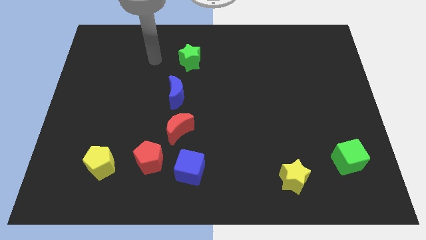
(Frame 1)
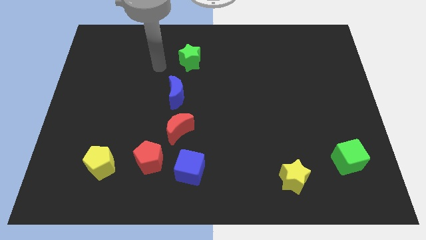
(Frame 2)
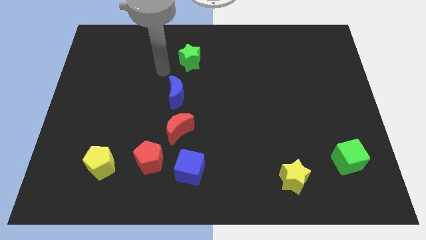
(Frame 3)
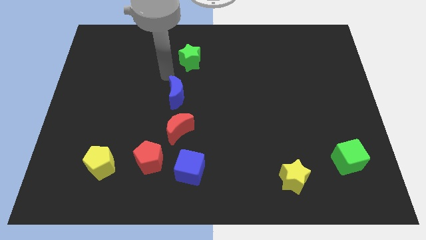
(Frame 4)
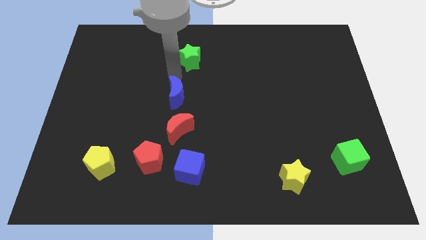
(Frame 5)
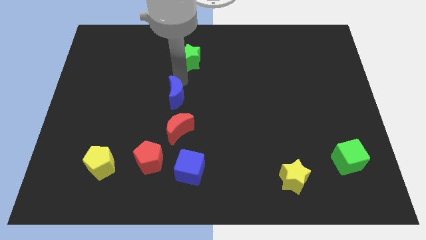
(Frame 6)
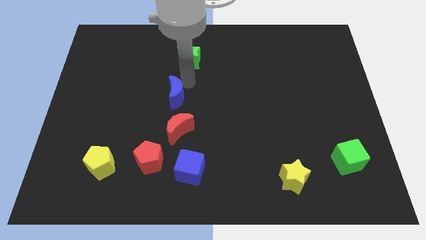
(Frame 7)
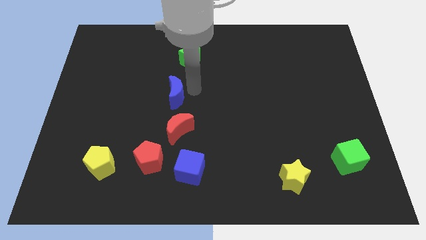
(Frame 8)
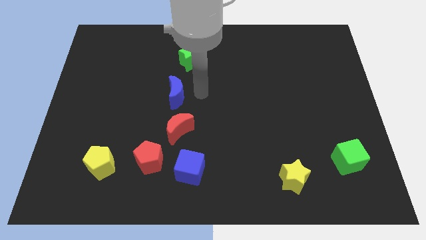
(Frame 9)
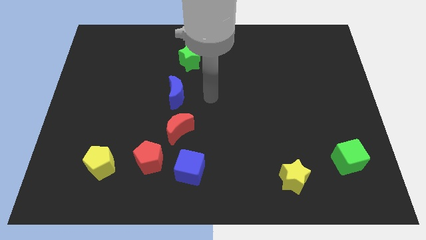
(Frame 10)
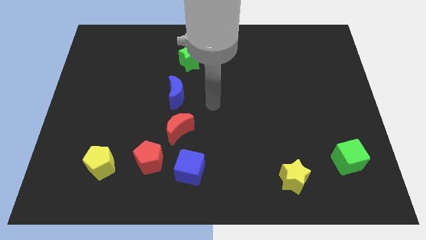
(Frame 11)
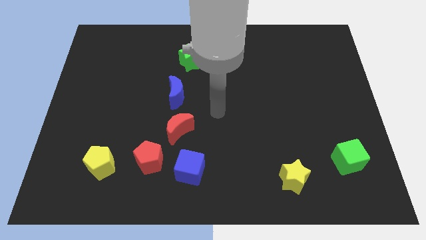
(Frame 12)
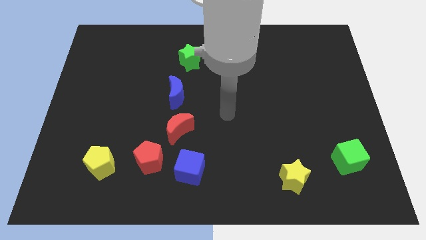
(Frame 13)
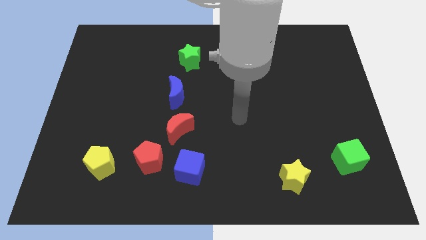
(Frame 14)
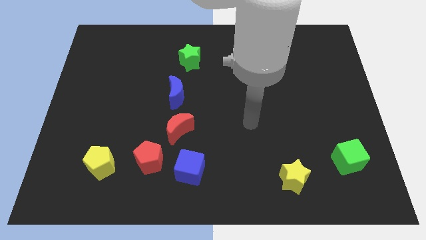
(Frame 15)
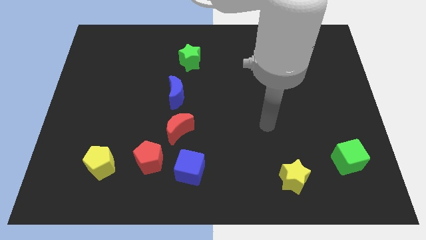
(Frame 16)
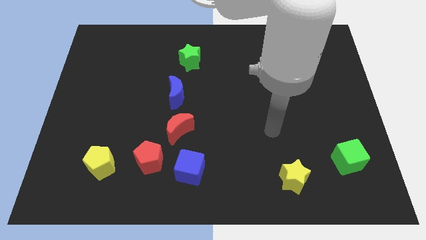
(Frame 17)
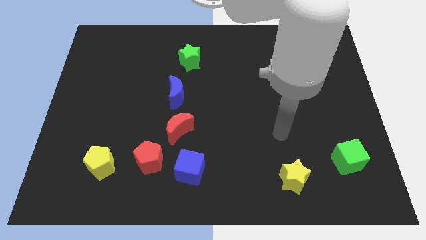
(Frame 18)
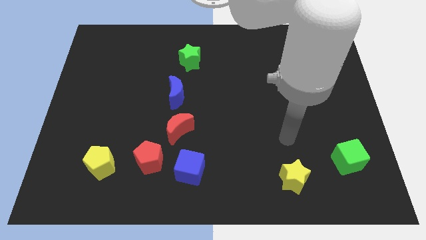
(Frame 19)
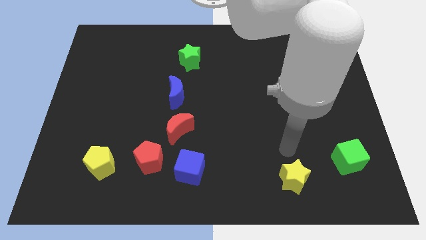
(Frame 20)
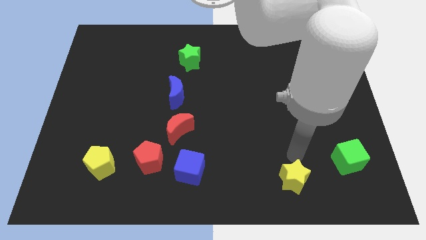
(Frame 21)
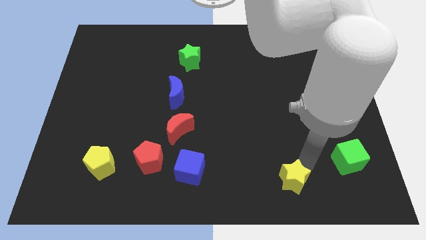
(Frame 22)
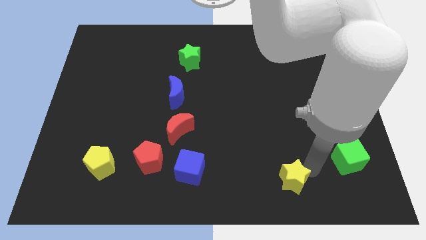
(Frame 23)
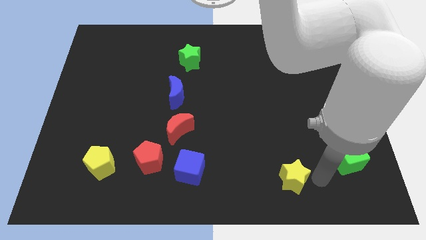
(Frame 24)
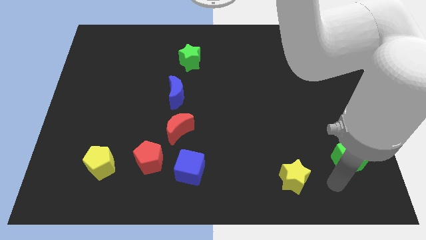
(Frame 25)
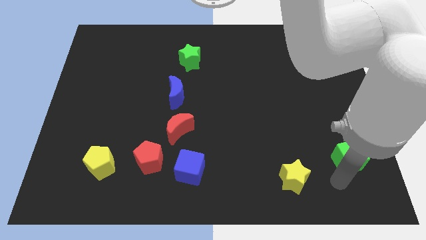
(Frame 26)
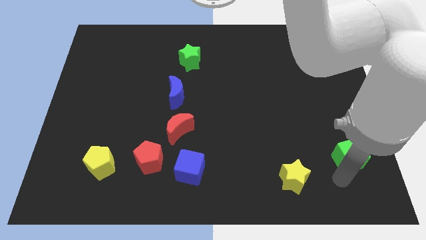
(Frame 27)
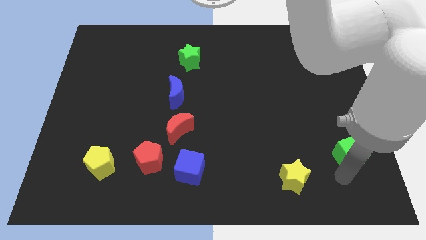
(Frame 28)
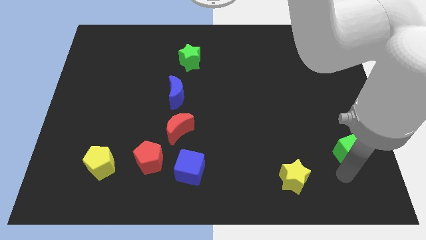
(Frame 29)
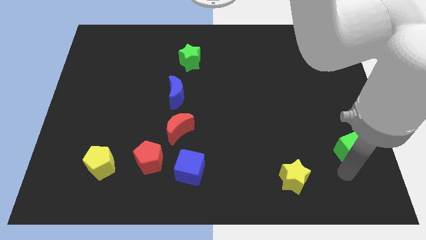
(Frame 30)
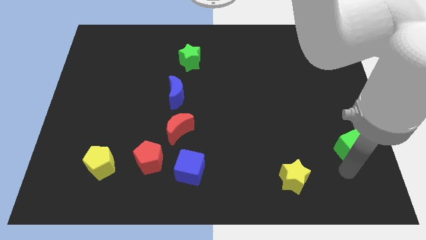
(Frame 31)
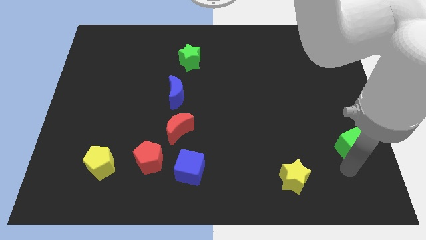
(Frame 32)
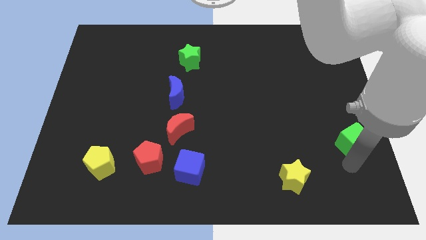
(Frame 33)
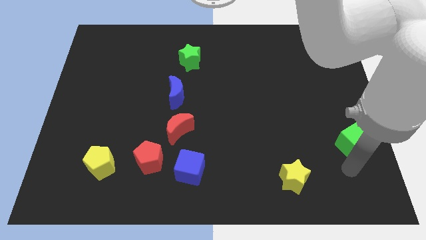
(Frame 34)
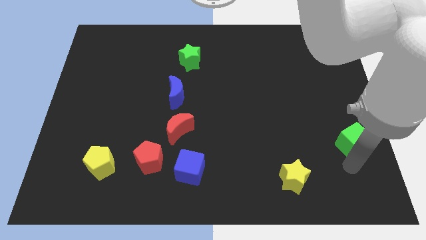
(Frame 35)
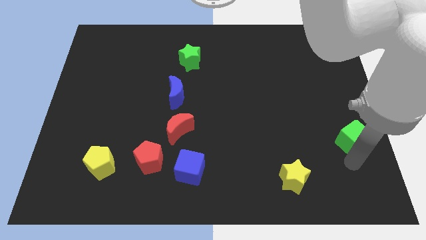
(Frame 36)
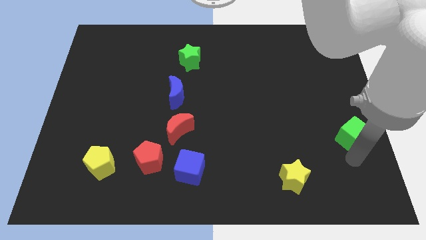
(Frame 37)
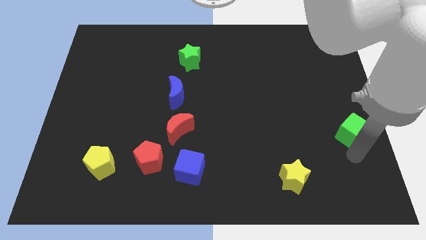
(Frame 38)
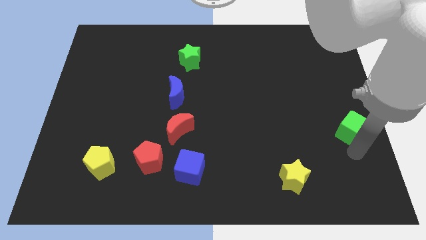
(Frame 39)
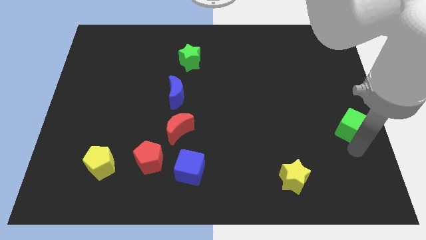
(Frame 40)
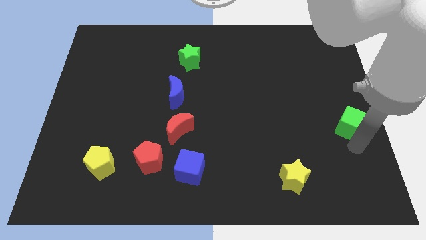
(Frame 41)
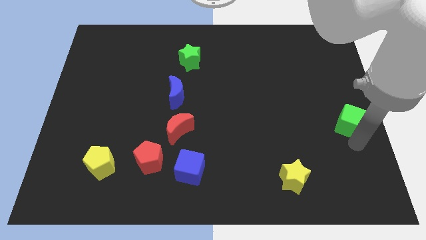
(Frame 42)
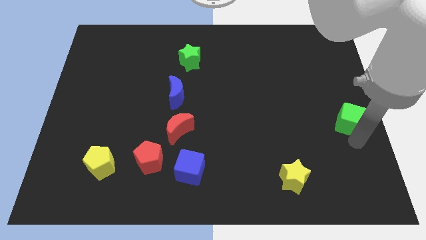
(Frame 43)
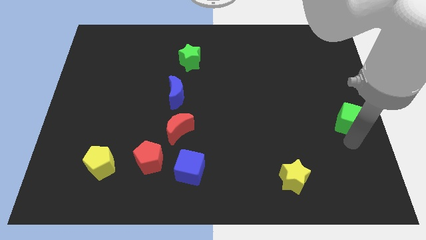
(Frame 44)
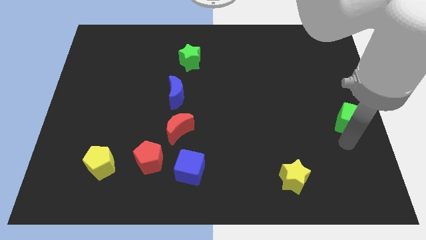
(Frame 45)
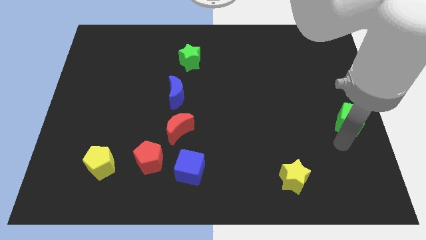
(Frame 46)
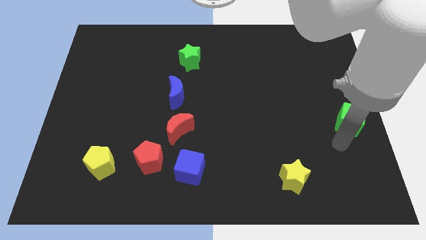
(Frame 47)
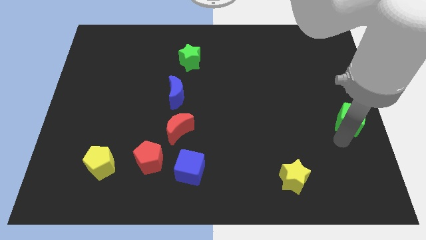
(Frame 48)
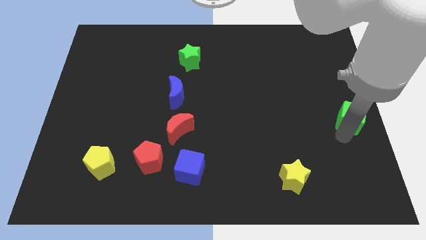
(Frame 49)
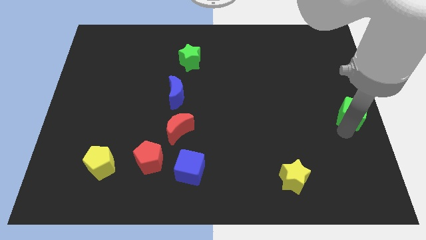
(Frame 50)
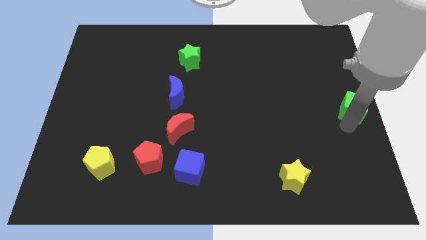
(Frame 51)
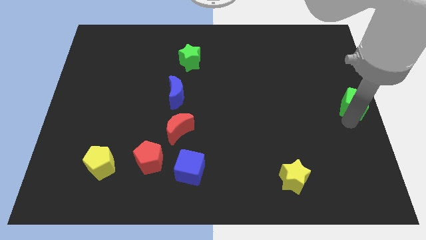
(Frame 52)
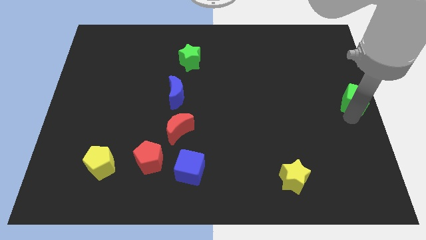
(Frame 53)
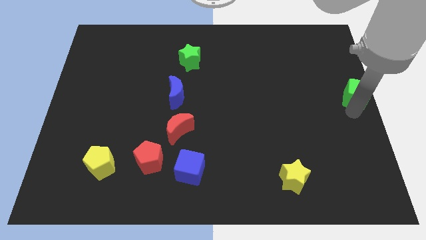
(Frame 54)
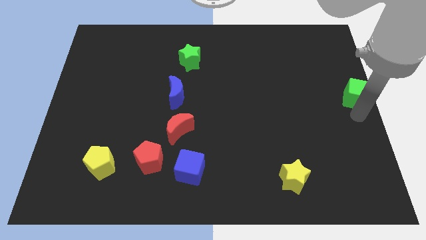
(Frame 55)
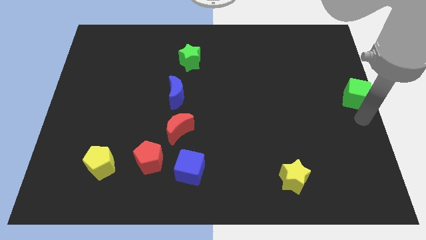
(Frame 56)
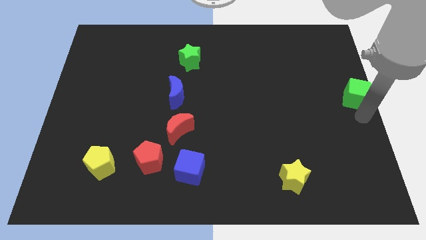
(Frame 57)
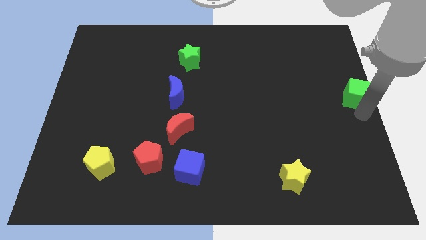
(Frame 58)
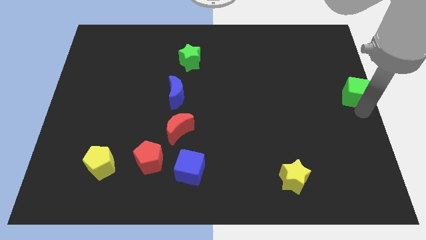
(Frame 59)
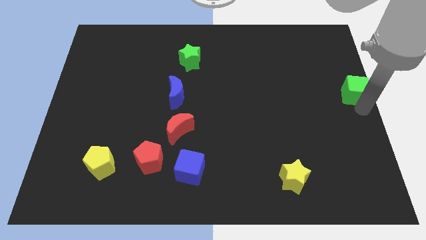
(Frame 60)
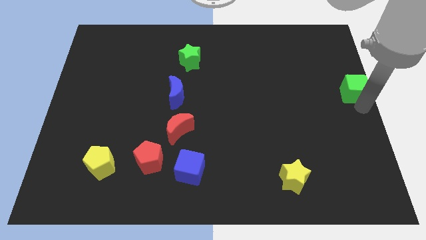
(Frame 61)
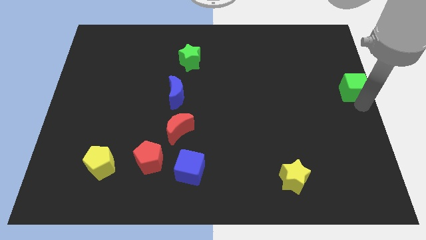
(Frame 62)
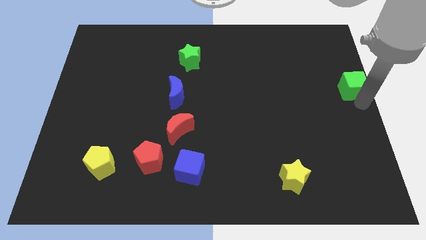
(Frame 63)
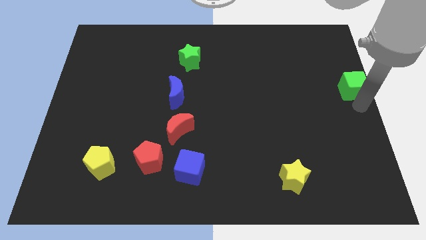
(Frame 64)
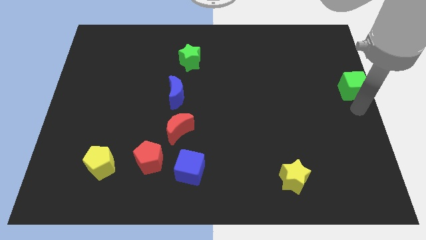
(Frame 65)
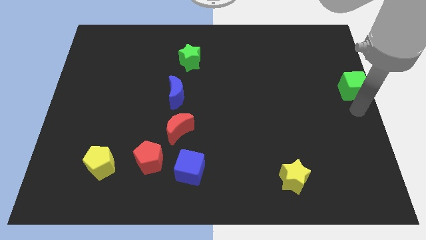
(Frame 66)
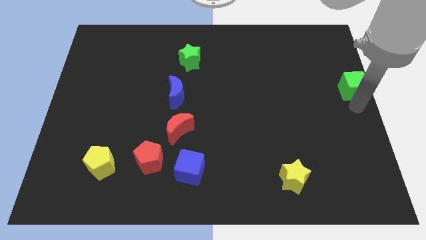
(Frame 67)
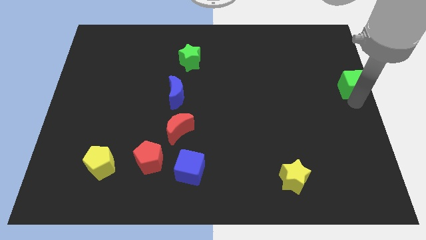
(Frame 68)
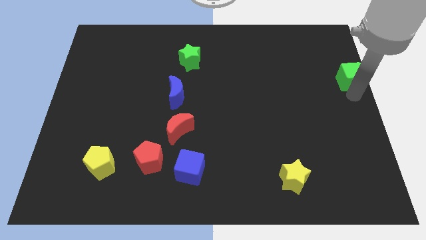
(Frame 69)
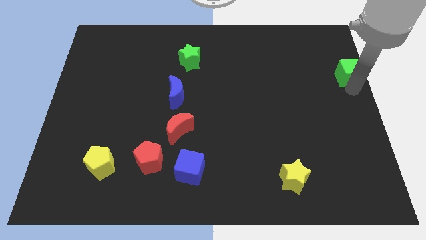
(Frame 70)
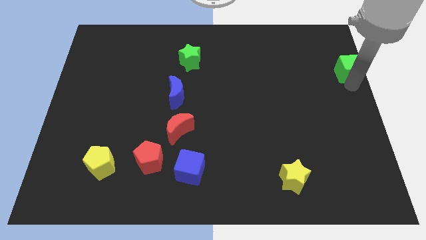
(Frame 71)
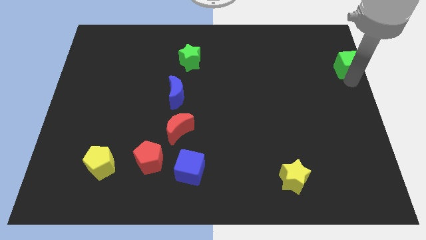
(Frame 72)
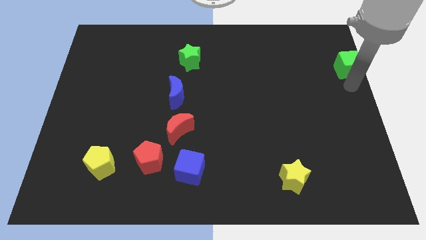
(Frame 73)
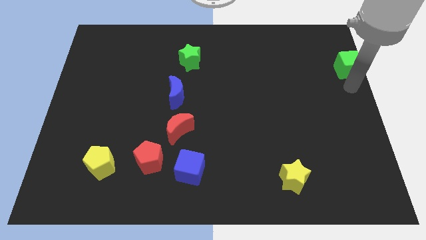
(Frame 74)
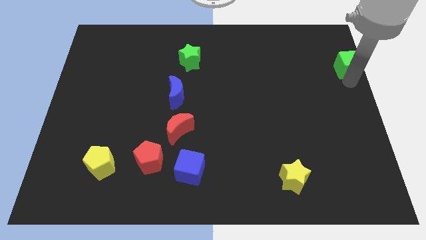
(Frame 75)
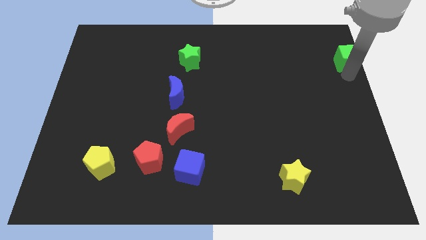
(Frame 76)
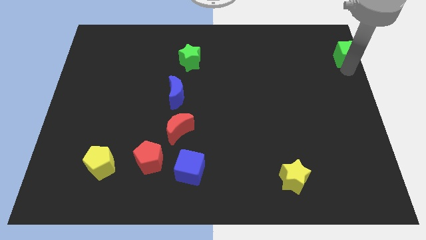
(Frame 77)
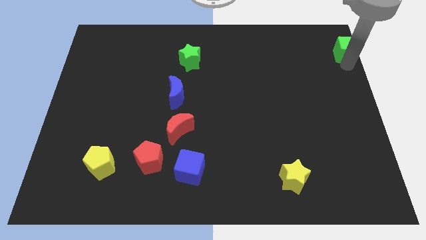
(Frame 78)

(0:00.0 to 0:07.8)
put the green cube to the upper right corner
